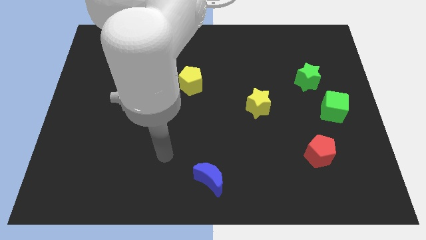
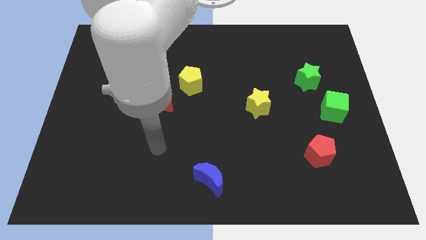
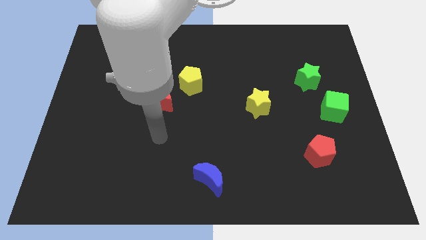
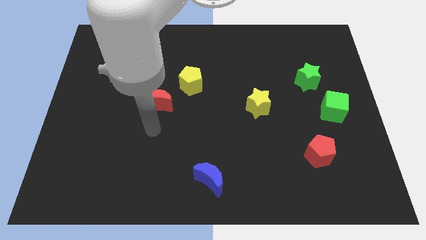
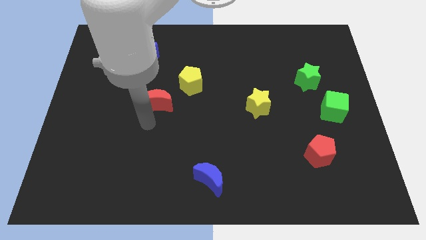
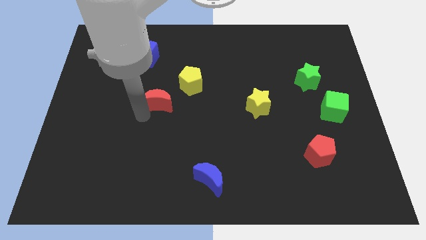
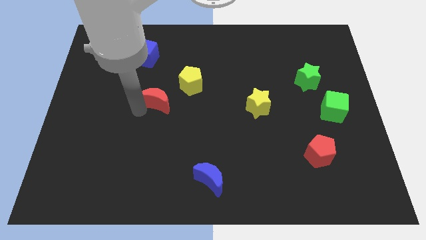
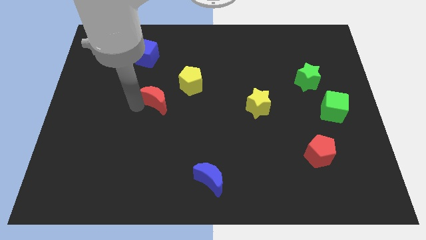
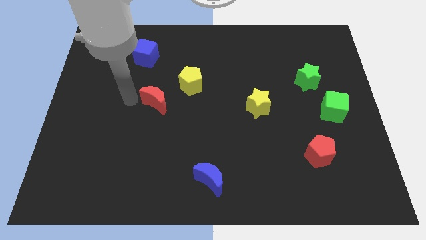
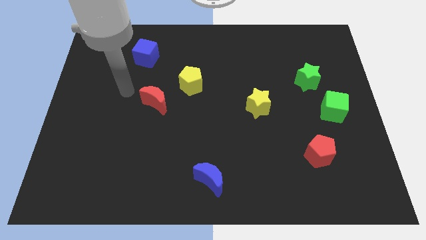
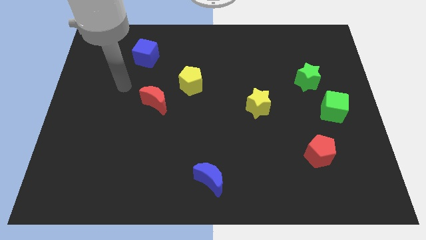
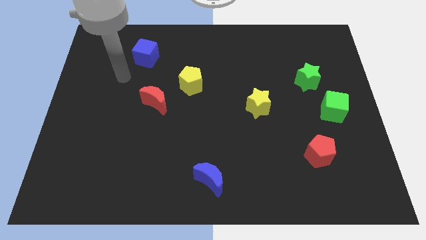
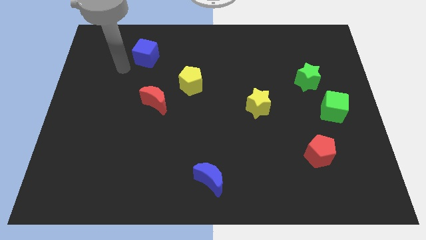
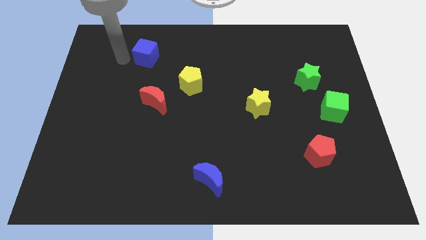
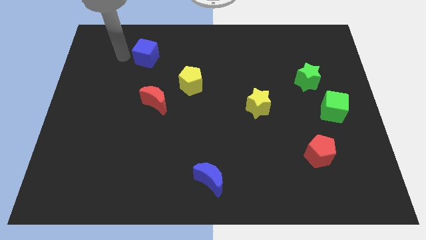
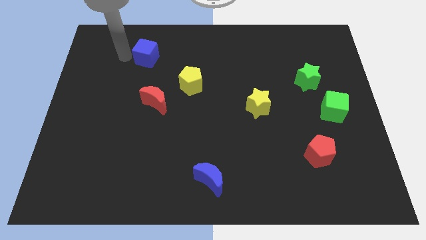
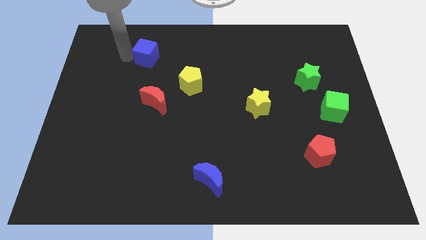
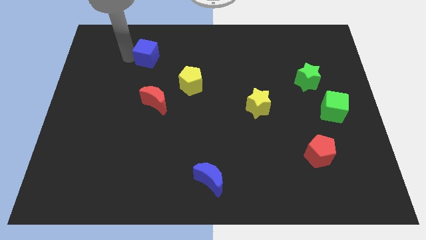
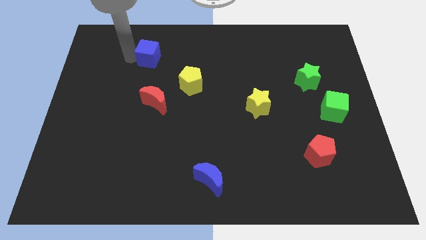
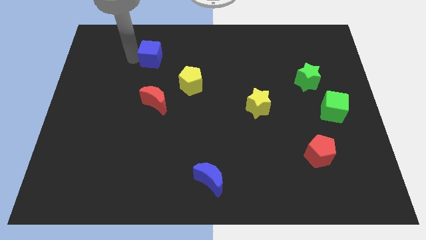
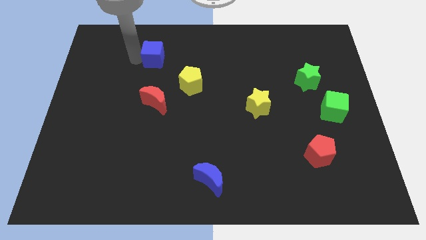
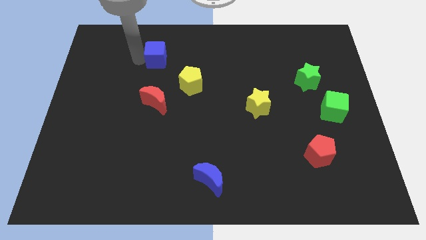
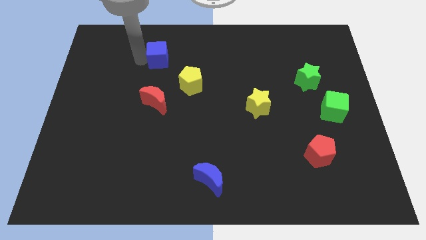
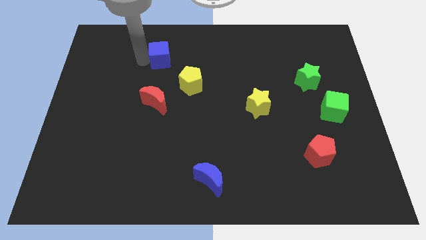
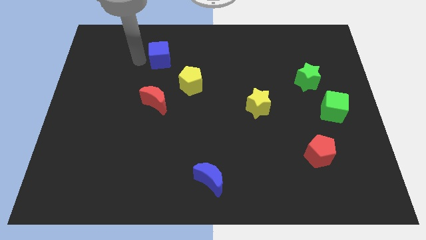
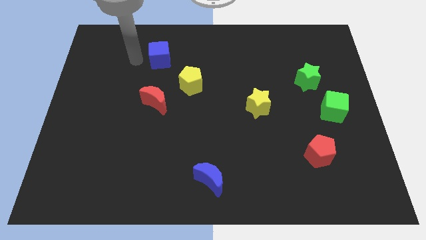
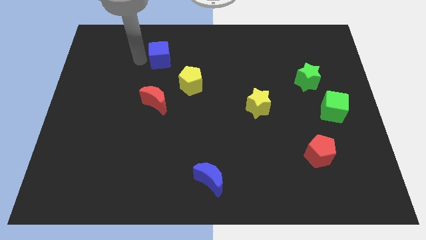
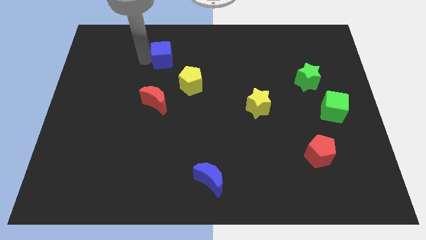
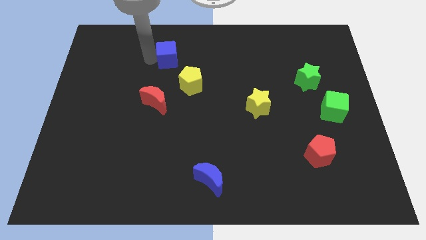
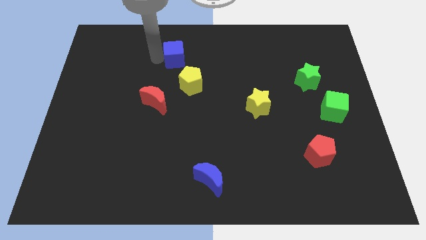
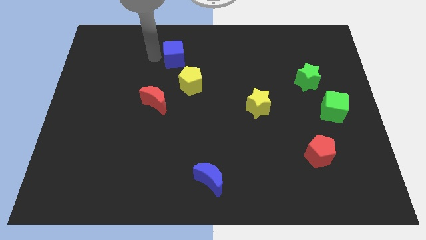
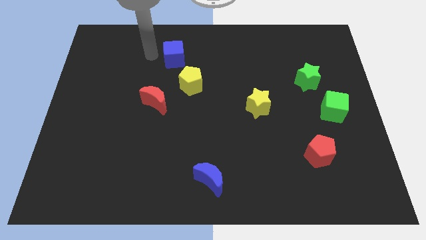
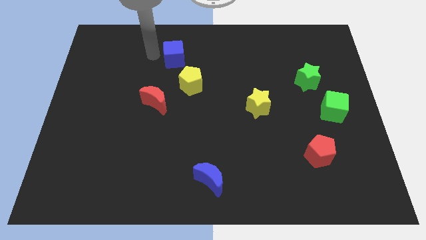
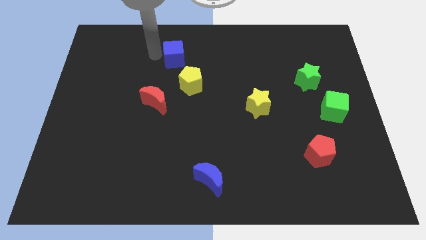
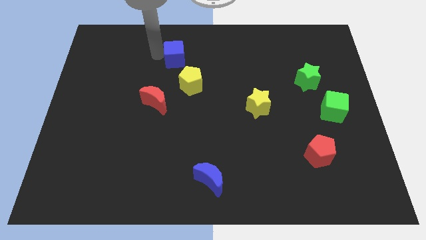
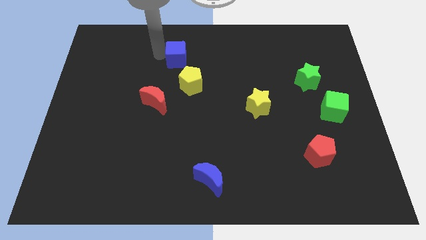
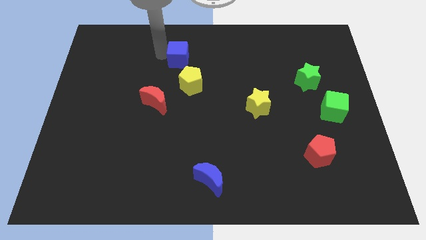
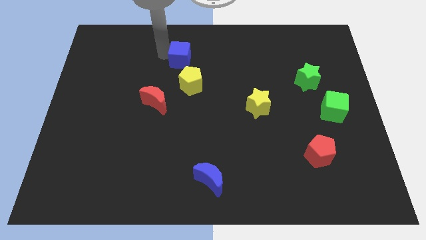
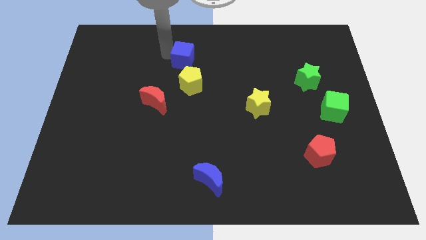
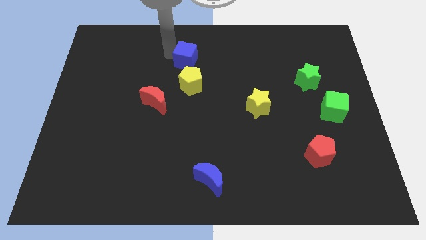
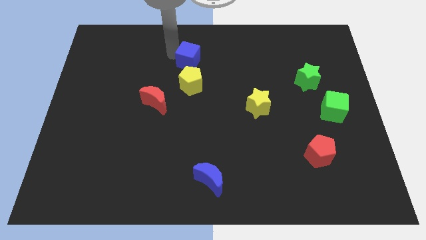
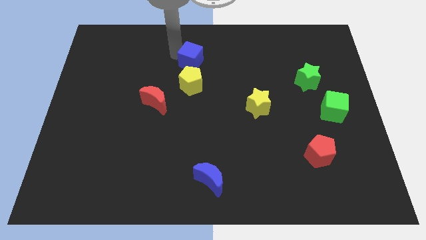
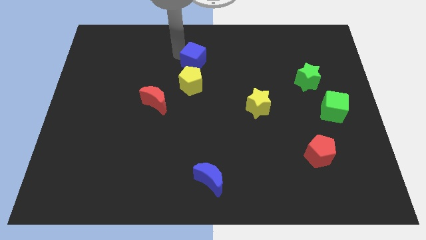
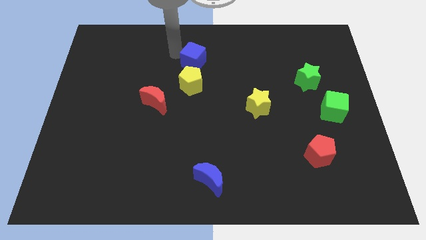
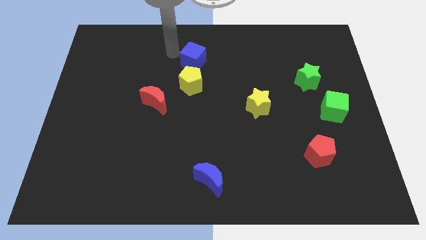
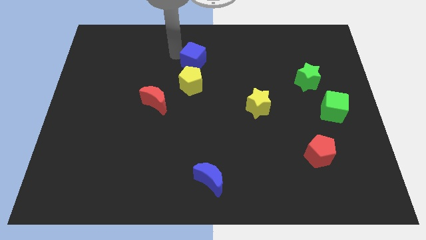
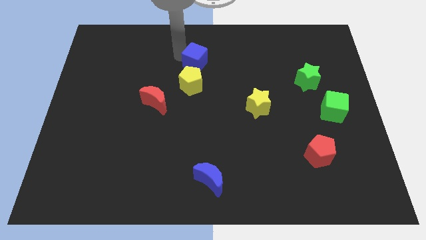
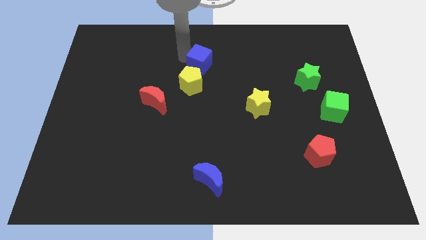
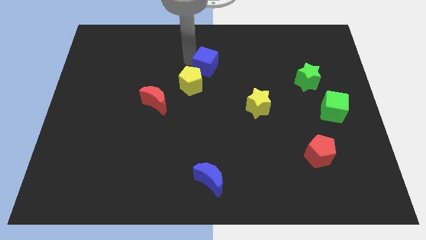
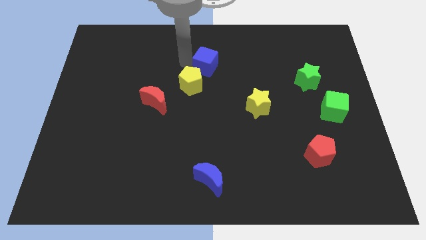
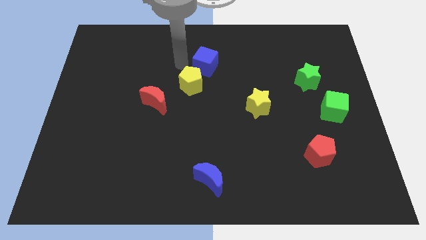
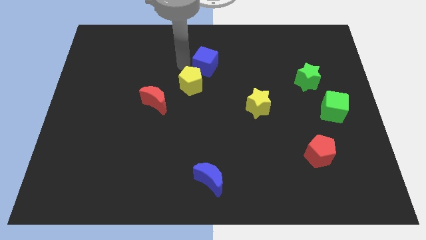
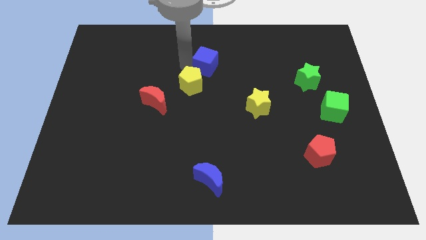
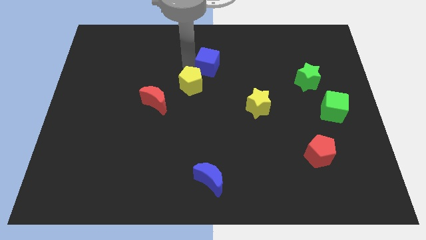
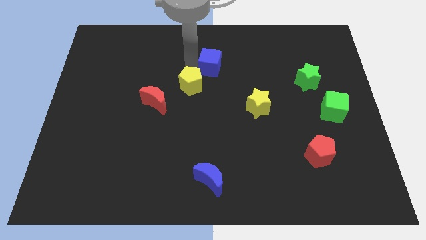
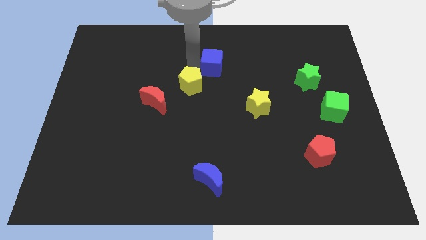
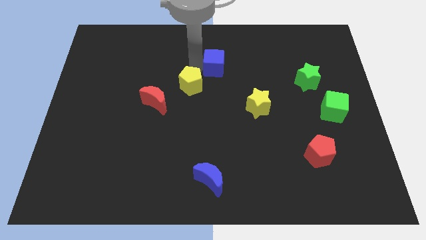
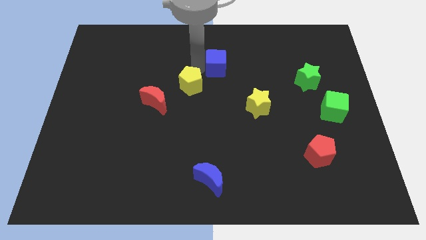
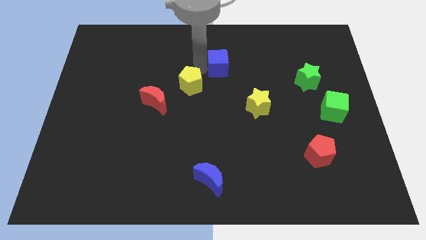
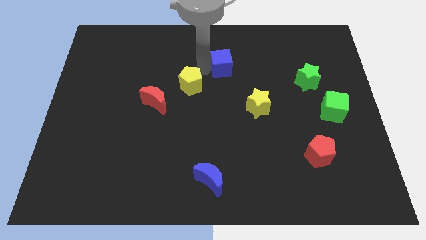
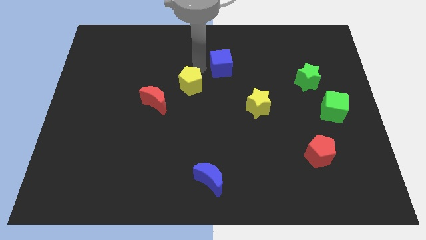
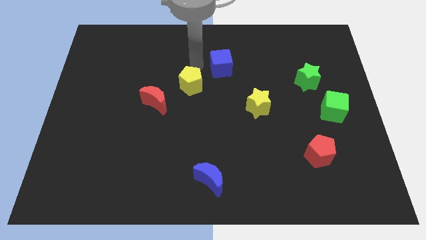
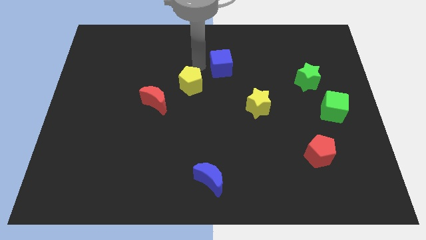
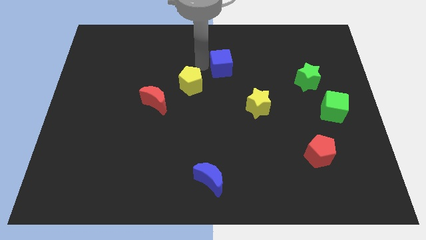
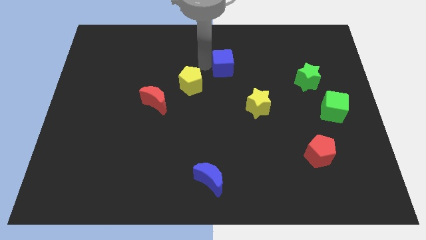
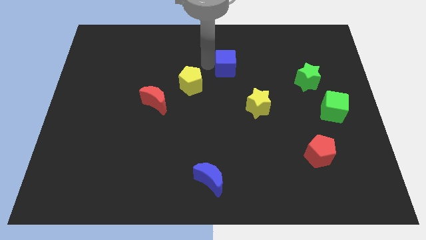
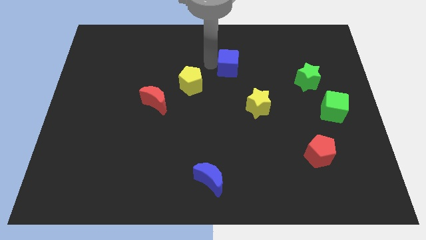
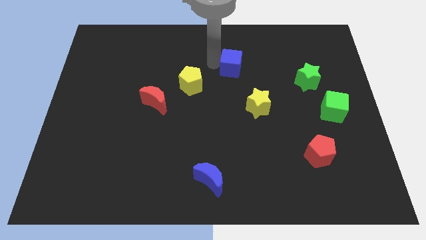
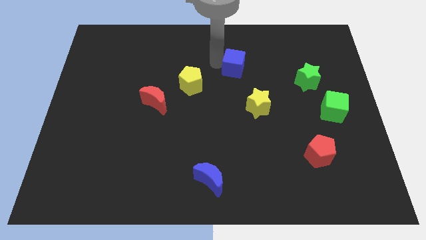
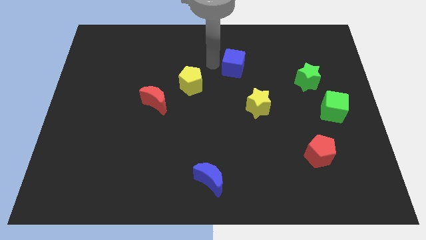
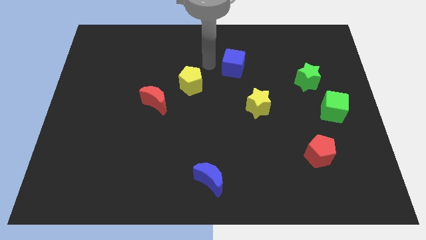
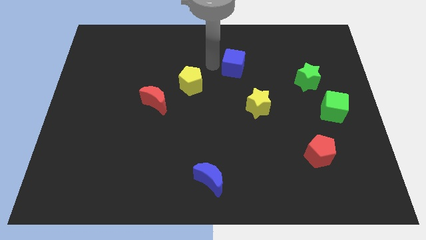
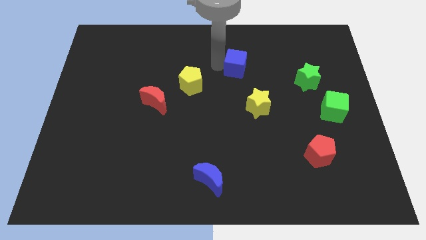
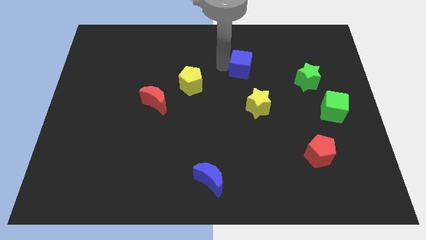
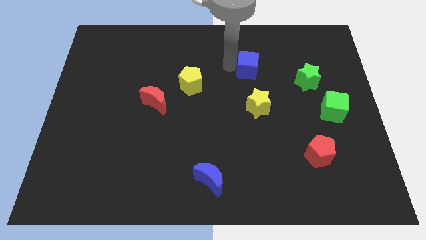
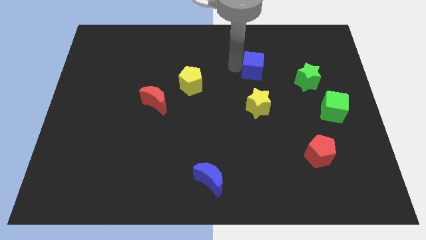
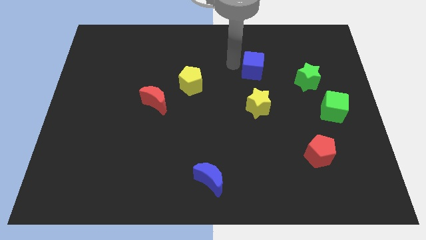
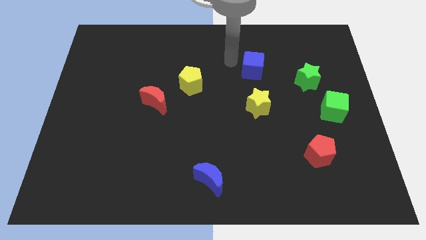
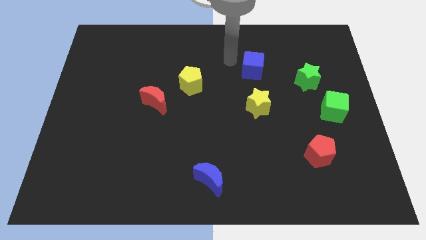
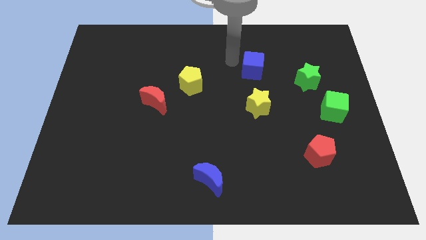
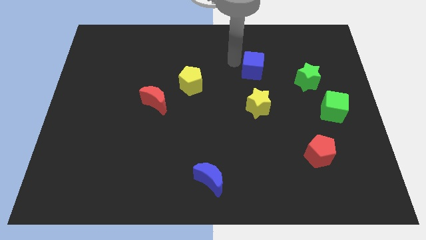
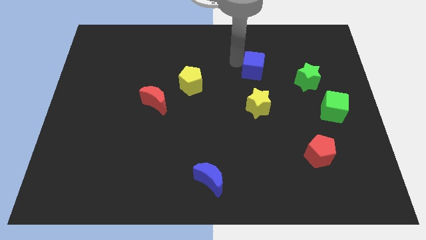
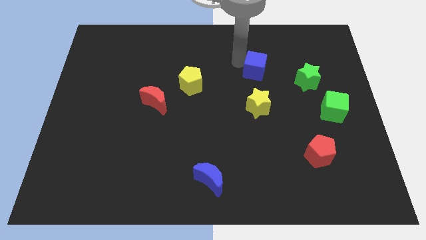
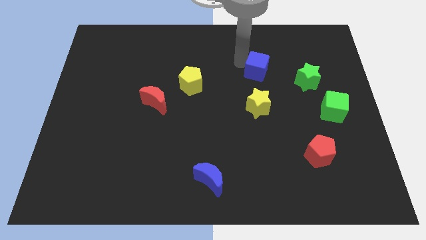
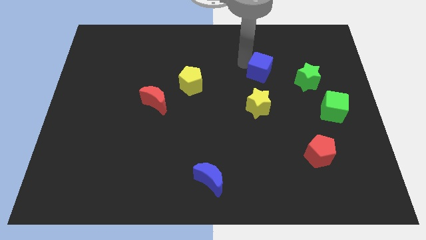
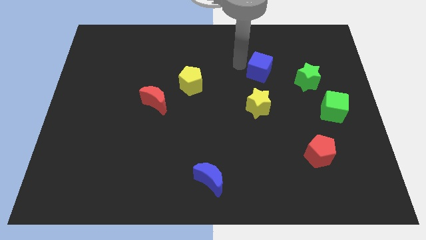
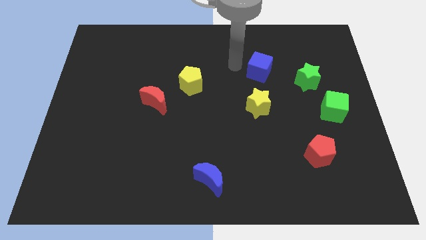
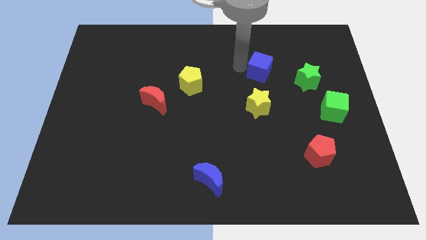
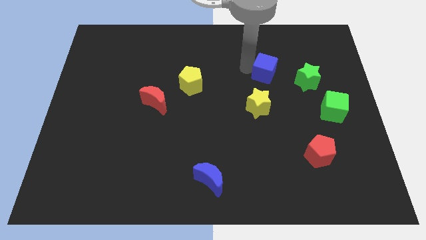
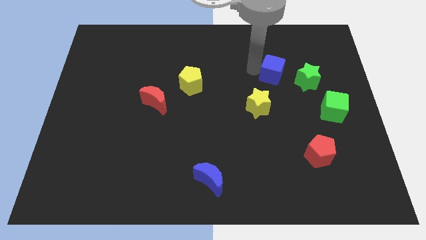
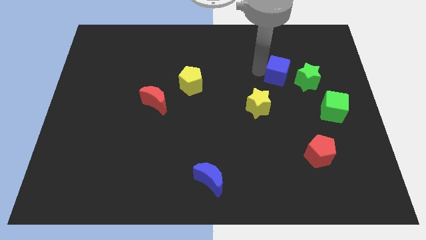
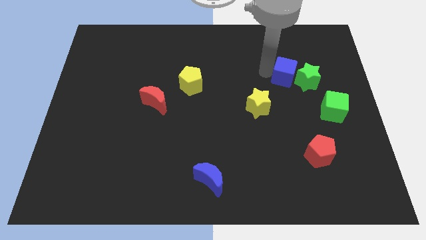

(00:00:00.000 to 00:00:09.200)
put the blue cube close to the green star
